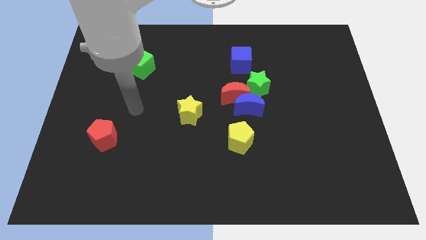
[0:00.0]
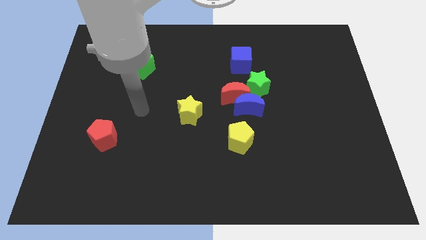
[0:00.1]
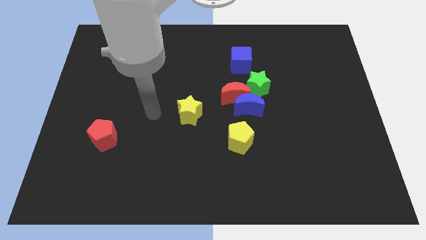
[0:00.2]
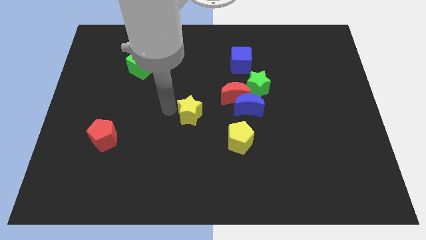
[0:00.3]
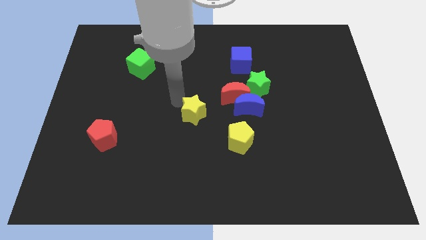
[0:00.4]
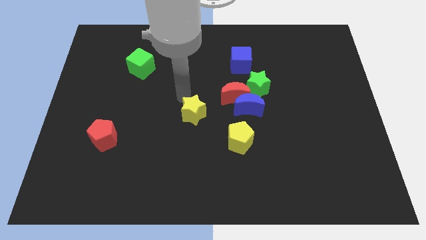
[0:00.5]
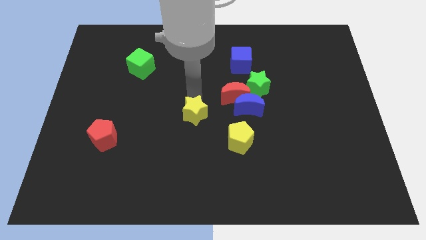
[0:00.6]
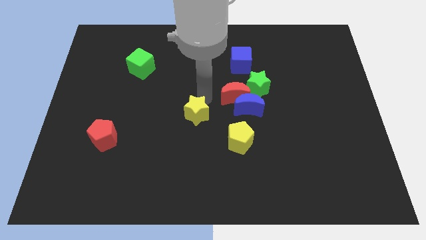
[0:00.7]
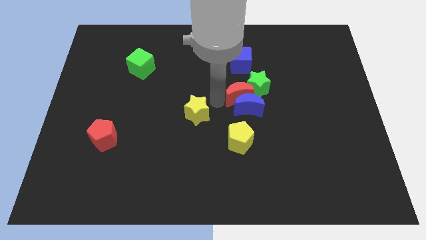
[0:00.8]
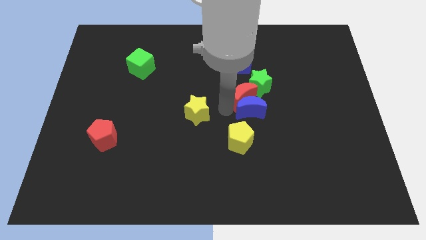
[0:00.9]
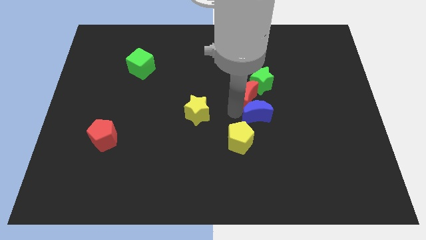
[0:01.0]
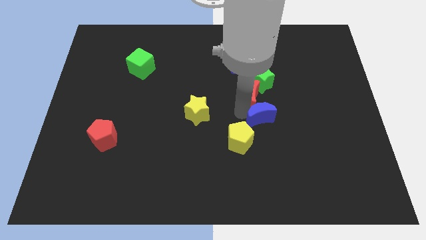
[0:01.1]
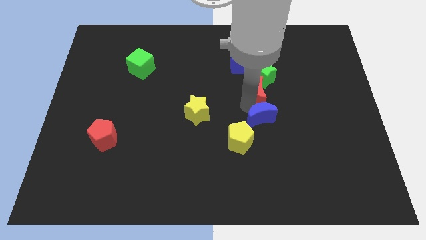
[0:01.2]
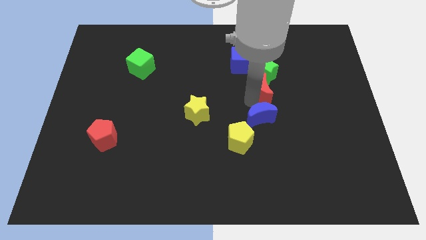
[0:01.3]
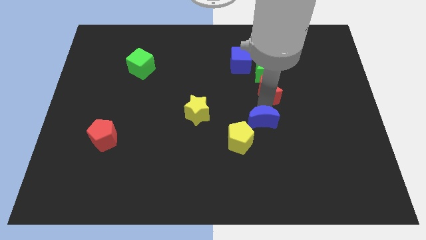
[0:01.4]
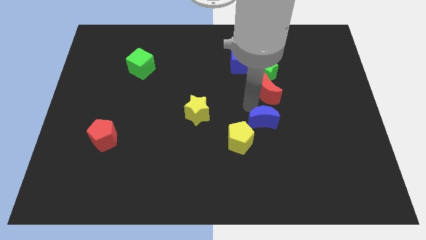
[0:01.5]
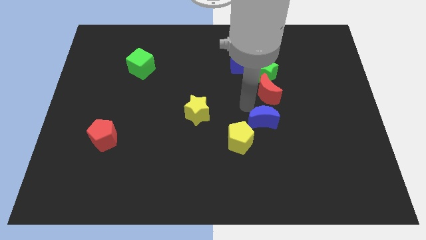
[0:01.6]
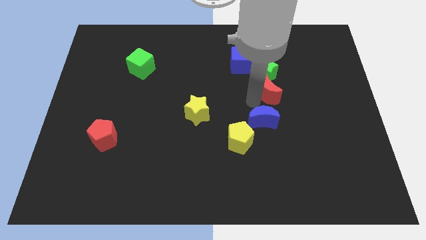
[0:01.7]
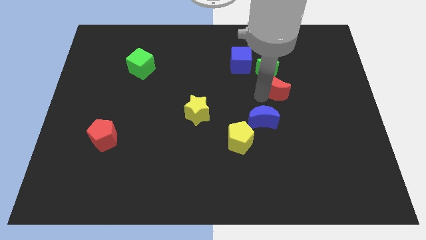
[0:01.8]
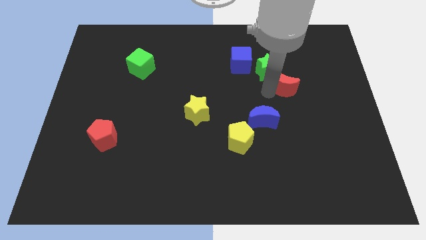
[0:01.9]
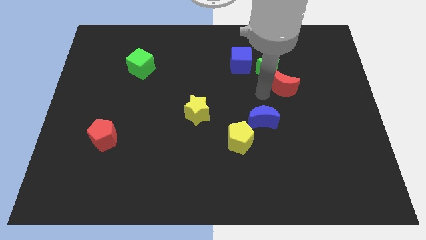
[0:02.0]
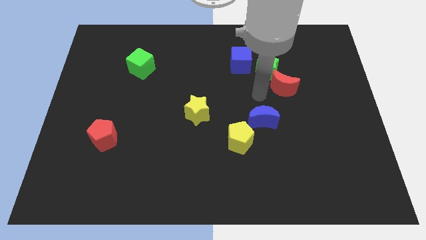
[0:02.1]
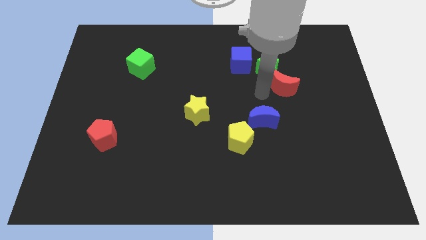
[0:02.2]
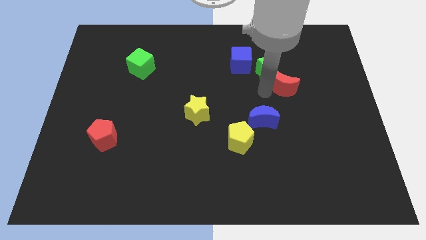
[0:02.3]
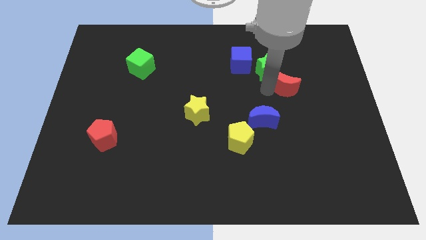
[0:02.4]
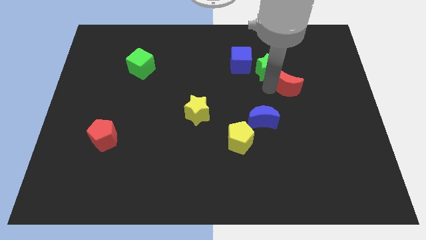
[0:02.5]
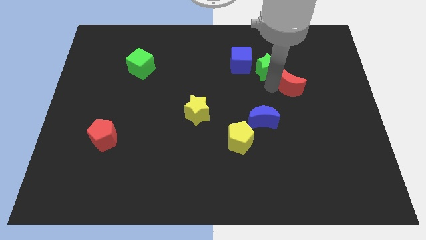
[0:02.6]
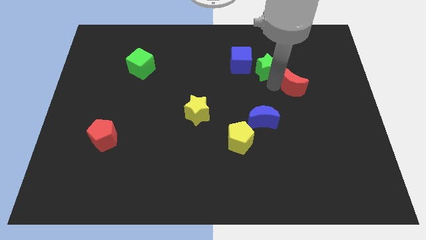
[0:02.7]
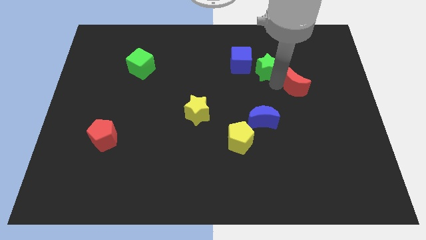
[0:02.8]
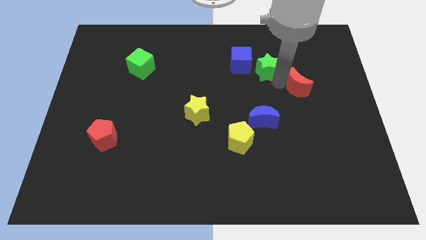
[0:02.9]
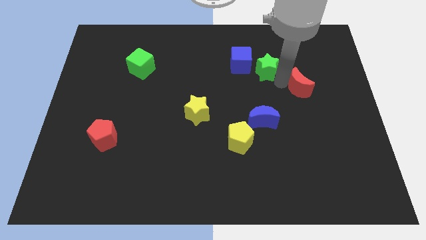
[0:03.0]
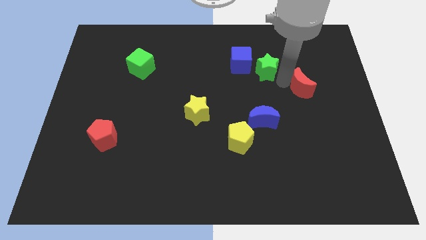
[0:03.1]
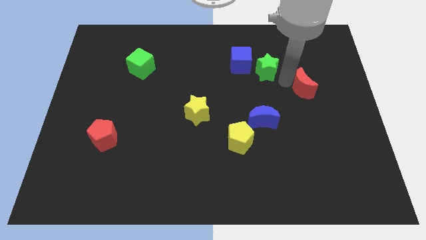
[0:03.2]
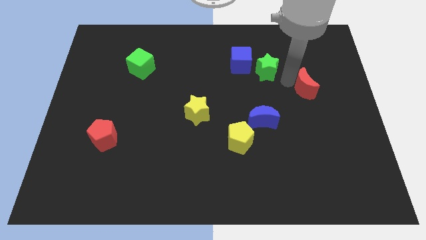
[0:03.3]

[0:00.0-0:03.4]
separate the red moon from the blue moon and green star

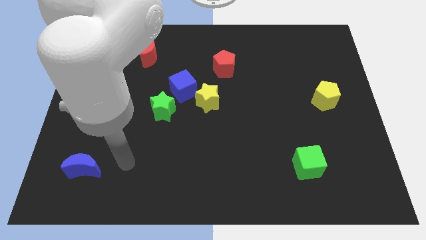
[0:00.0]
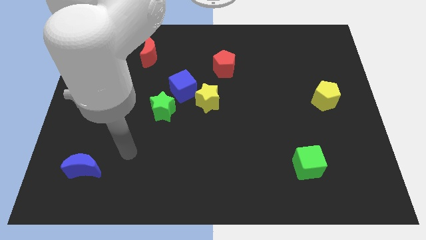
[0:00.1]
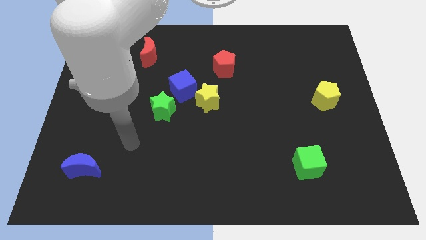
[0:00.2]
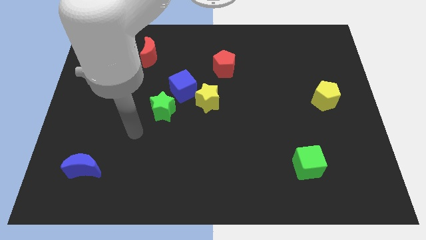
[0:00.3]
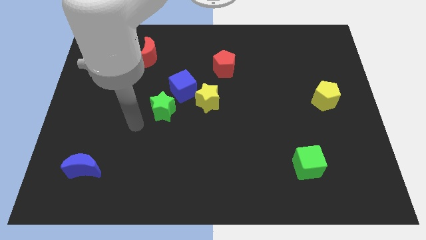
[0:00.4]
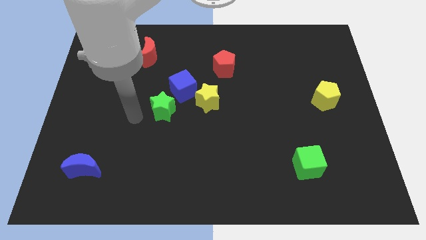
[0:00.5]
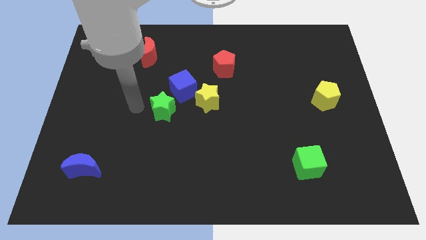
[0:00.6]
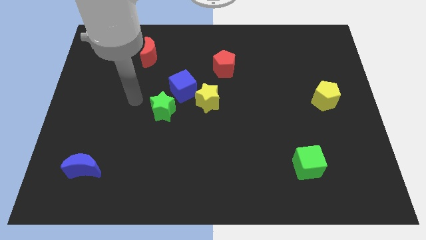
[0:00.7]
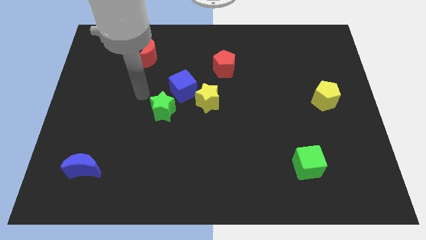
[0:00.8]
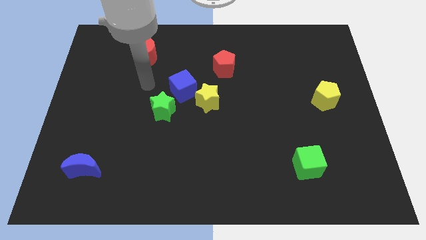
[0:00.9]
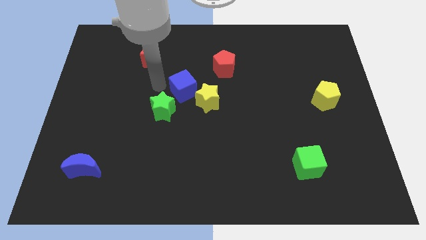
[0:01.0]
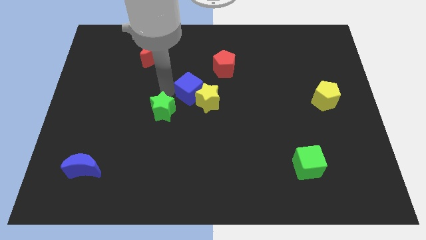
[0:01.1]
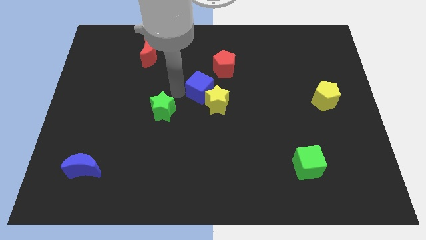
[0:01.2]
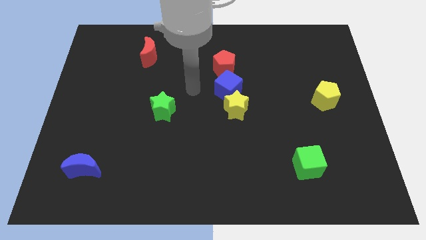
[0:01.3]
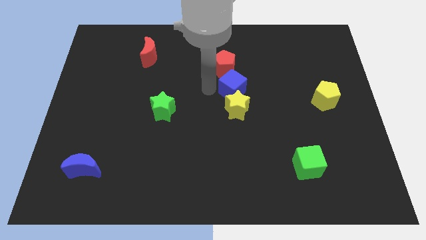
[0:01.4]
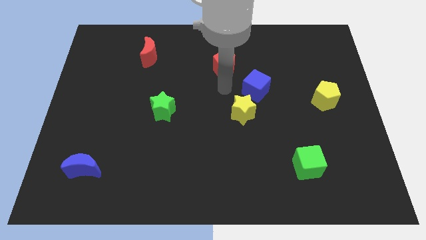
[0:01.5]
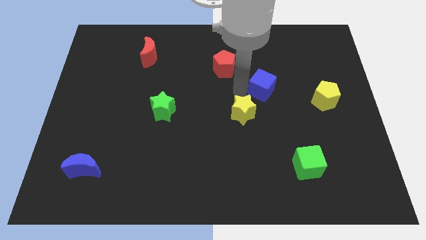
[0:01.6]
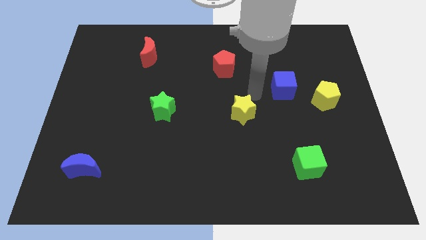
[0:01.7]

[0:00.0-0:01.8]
pull the yellow star apart from the blue cube

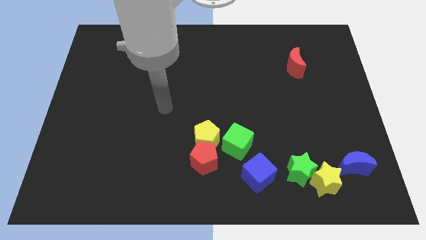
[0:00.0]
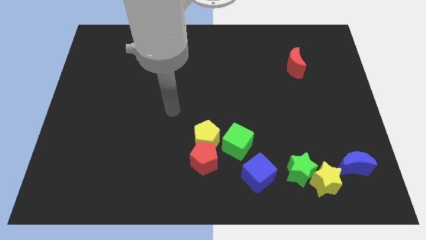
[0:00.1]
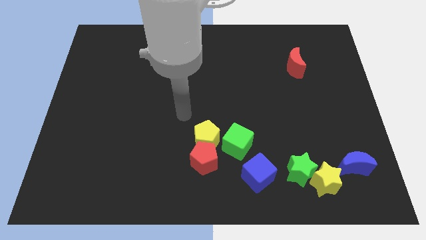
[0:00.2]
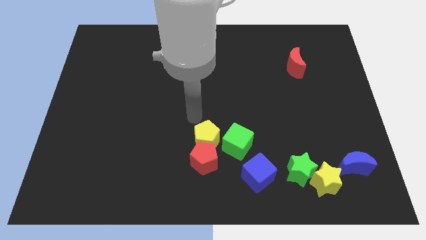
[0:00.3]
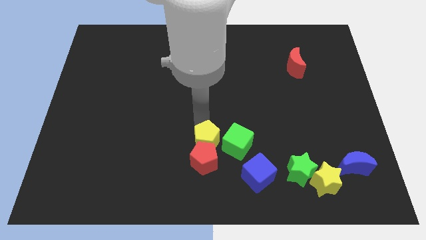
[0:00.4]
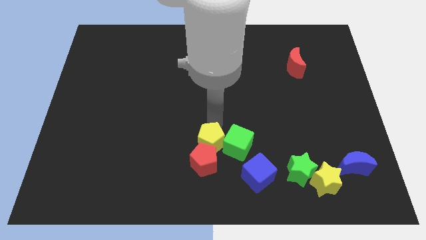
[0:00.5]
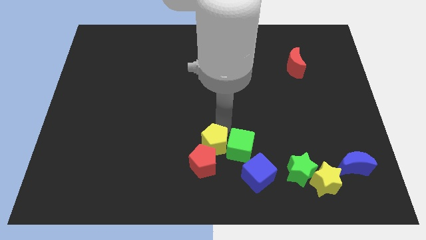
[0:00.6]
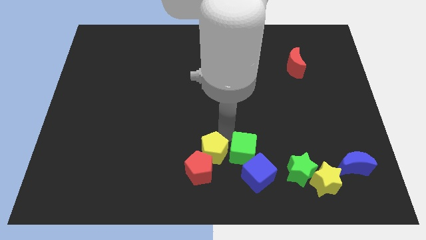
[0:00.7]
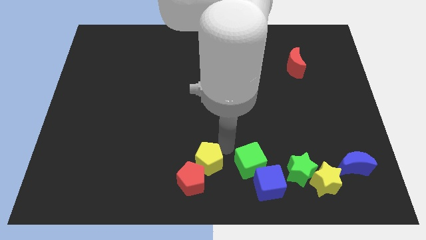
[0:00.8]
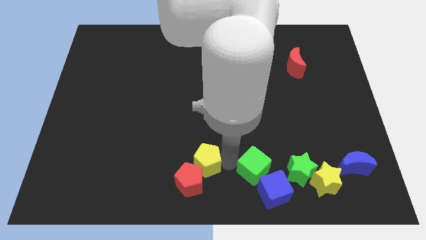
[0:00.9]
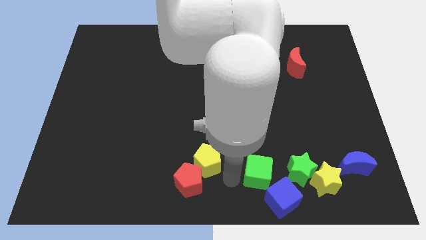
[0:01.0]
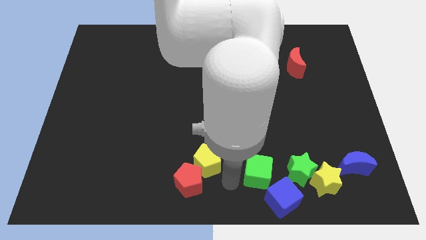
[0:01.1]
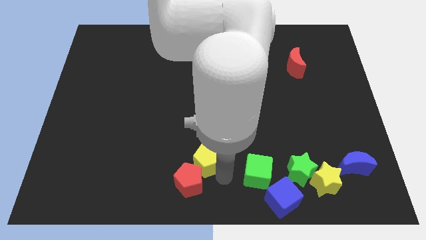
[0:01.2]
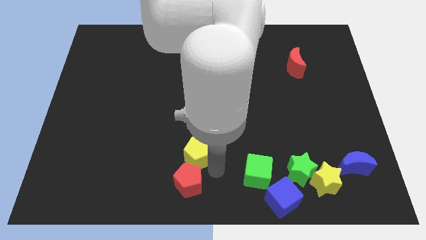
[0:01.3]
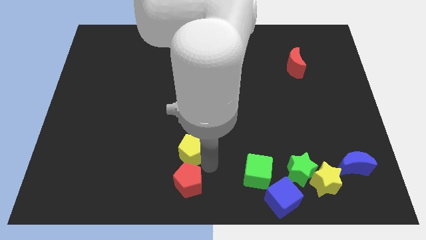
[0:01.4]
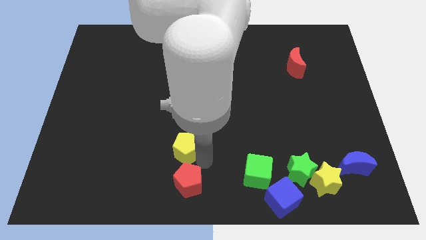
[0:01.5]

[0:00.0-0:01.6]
separate the yellow pentagon from the red pentagon and green cube

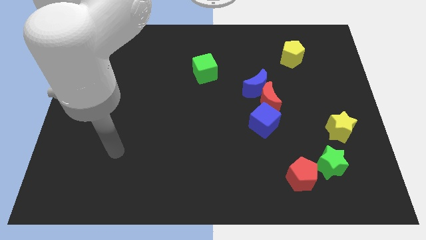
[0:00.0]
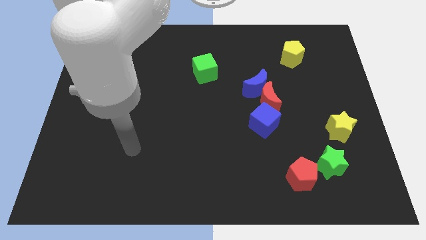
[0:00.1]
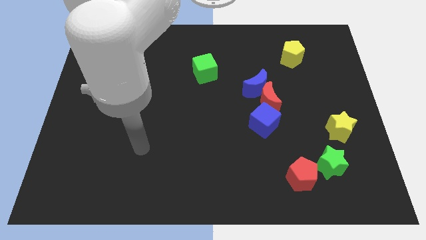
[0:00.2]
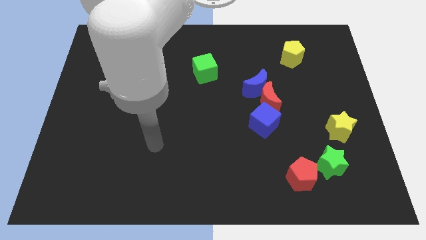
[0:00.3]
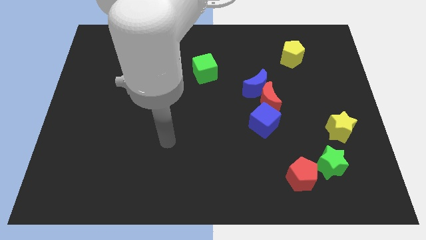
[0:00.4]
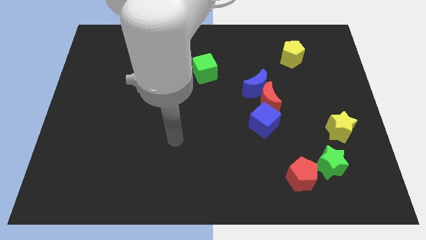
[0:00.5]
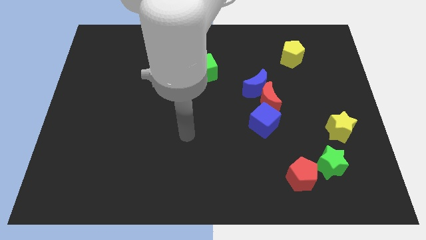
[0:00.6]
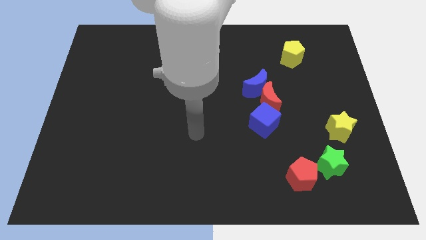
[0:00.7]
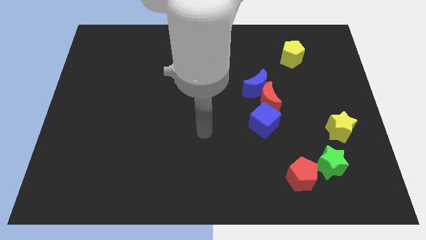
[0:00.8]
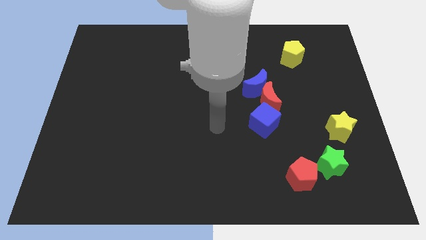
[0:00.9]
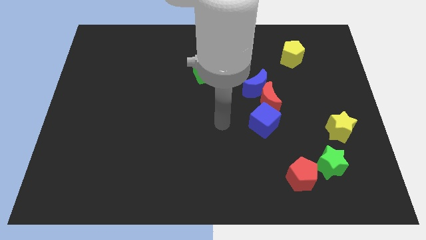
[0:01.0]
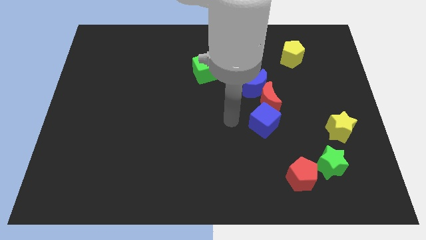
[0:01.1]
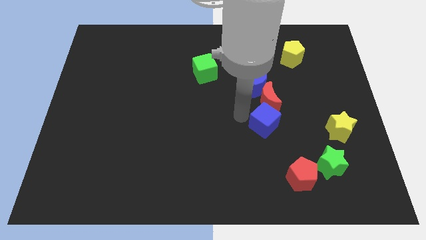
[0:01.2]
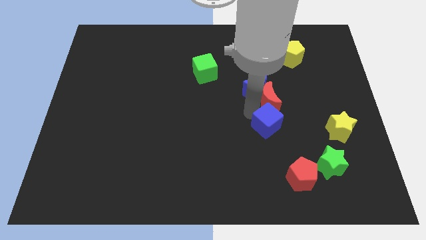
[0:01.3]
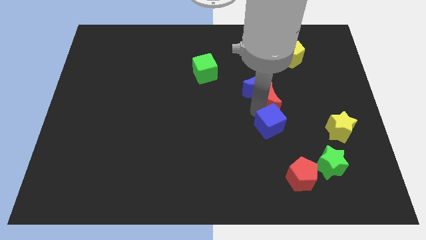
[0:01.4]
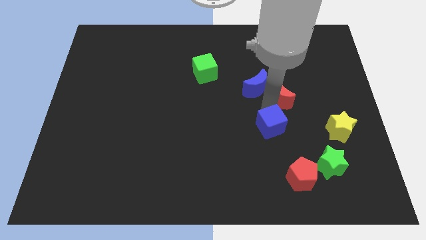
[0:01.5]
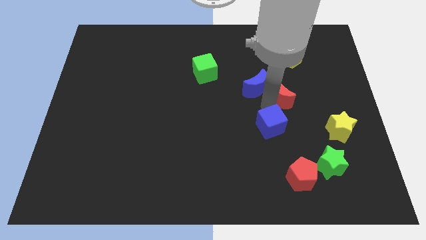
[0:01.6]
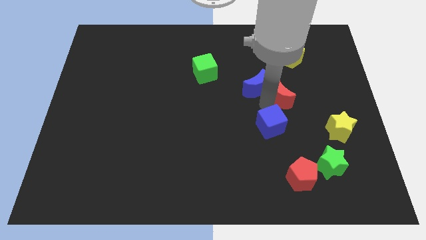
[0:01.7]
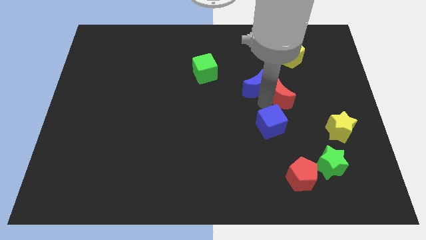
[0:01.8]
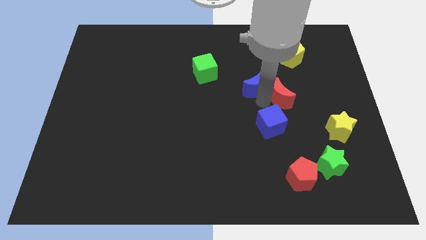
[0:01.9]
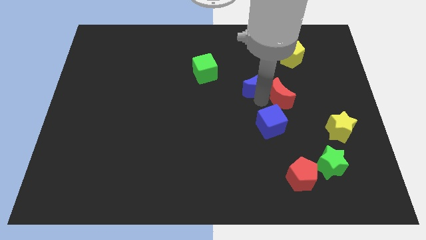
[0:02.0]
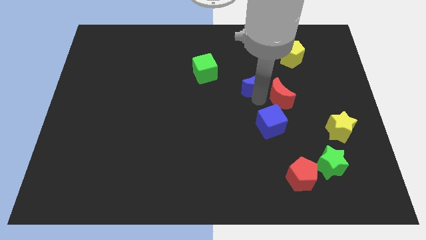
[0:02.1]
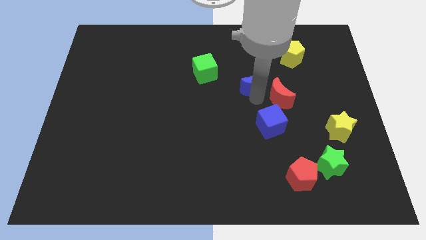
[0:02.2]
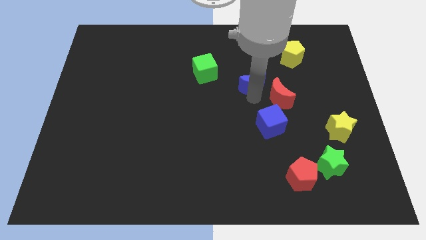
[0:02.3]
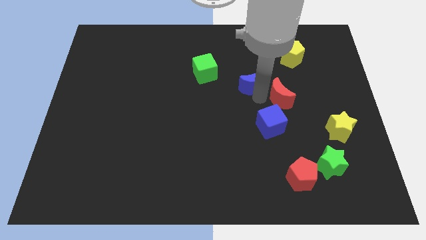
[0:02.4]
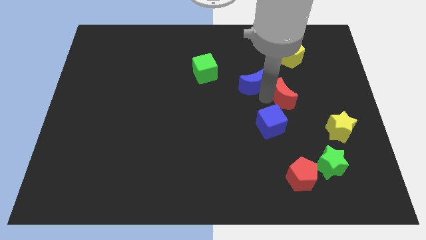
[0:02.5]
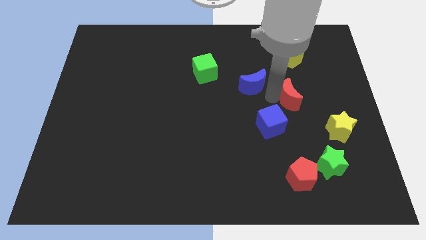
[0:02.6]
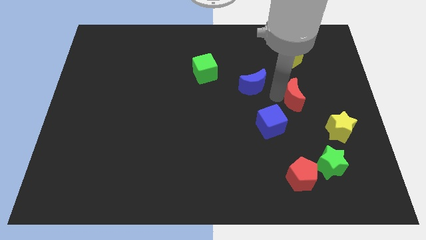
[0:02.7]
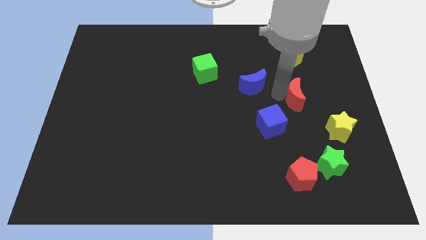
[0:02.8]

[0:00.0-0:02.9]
pull the blue moon apart from the red moon
